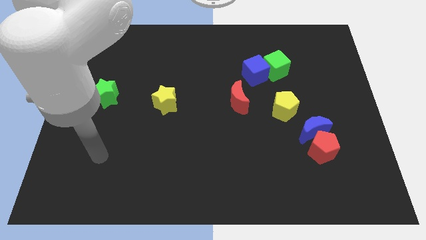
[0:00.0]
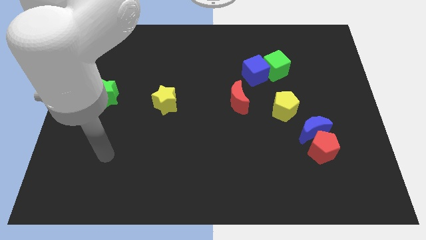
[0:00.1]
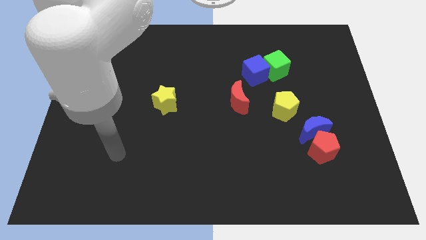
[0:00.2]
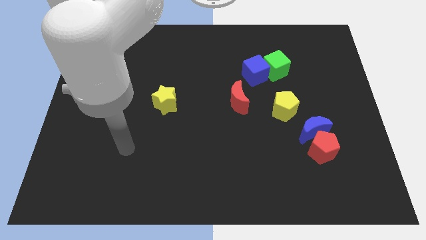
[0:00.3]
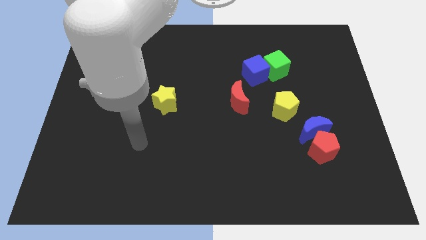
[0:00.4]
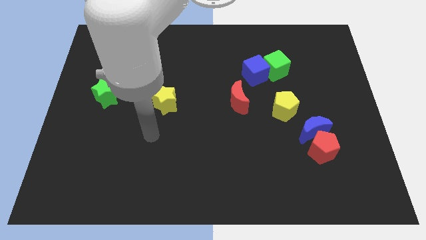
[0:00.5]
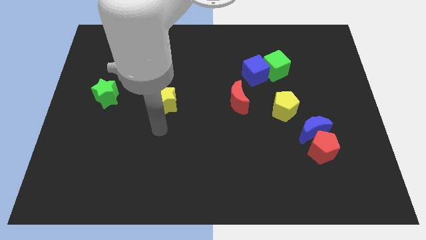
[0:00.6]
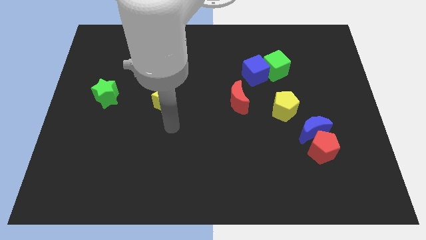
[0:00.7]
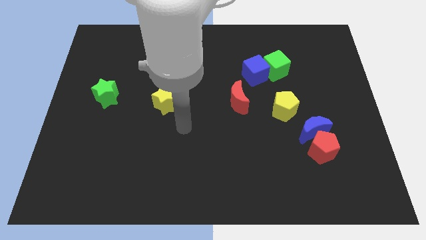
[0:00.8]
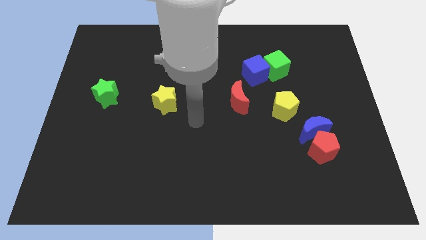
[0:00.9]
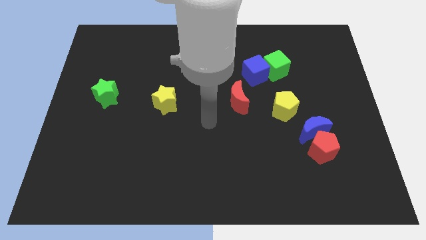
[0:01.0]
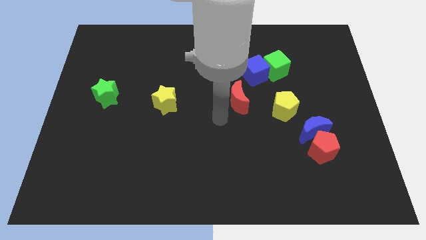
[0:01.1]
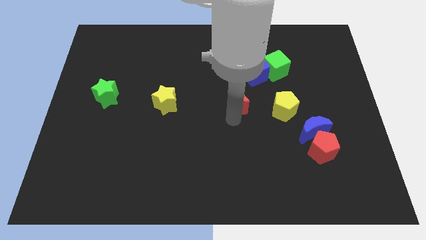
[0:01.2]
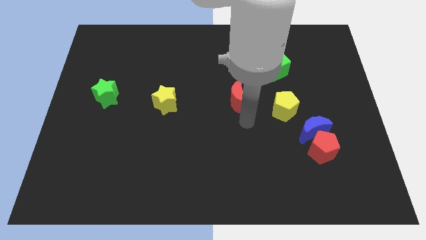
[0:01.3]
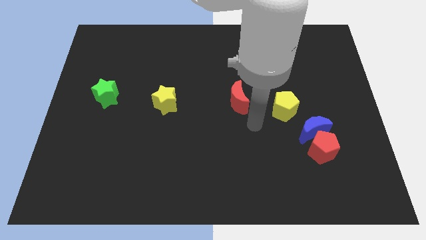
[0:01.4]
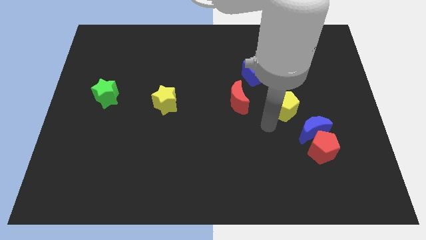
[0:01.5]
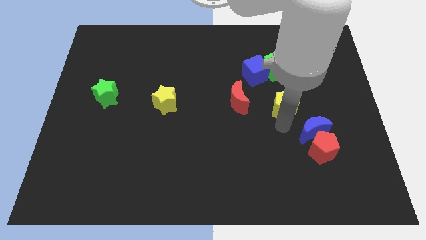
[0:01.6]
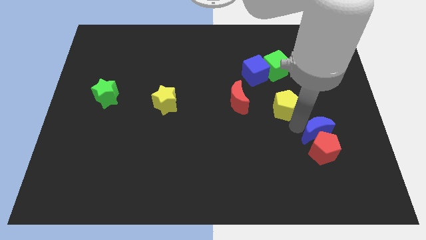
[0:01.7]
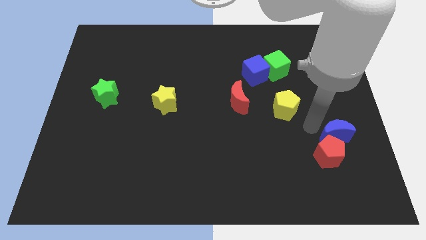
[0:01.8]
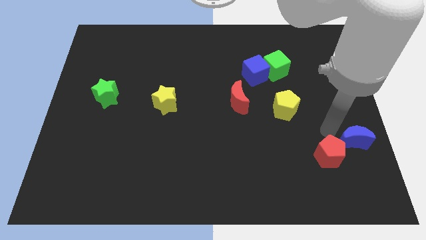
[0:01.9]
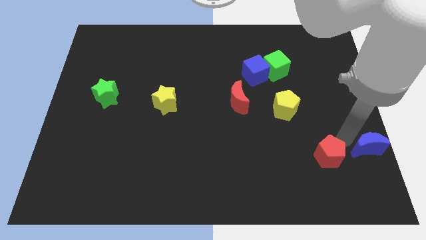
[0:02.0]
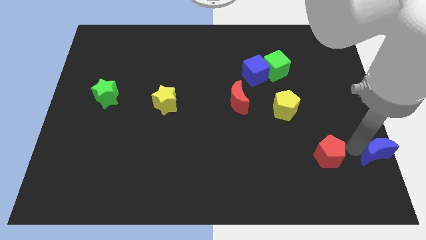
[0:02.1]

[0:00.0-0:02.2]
pull the red pentagon apart from the blue moon

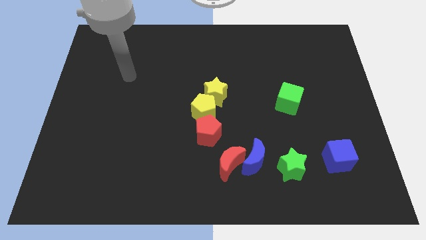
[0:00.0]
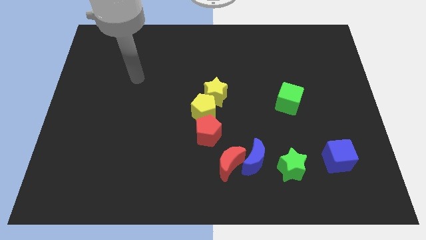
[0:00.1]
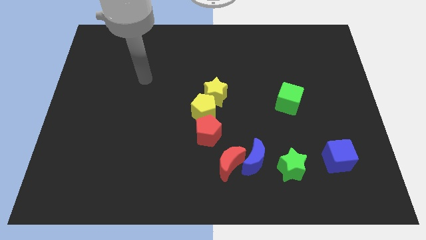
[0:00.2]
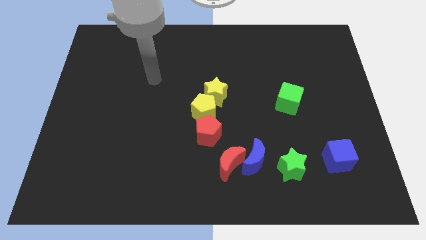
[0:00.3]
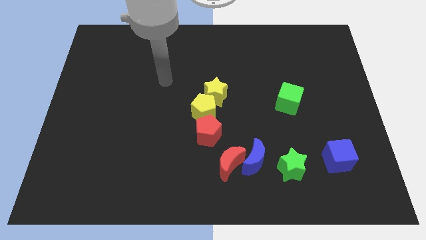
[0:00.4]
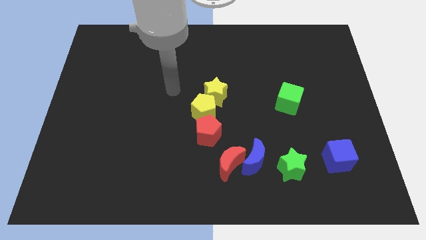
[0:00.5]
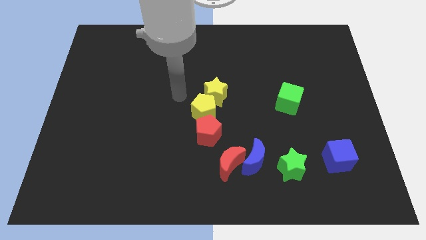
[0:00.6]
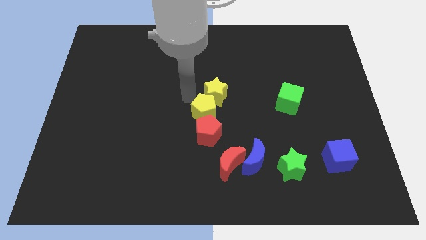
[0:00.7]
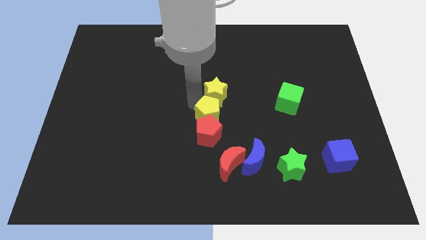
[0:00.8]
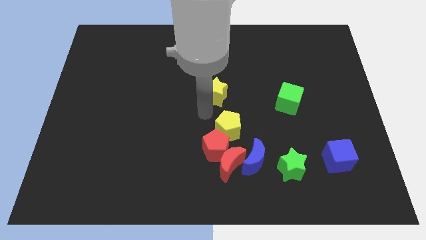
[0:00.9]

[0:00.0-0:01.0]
move the yellow star away from the yellow pentagon

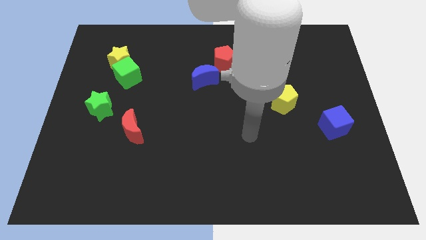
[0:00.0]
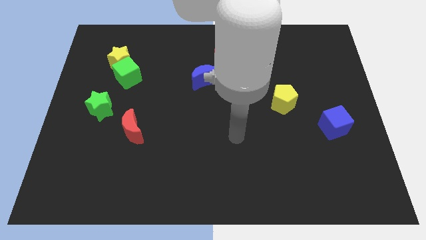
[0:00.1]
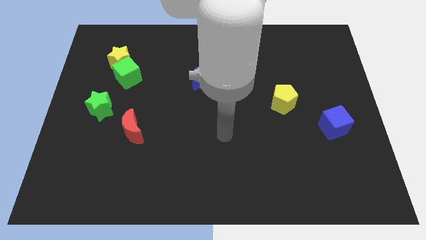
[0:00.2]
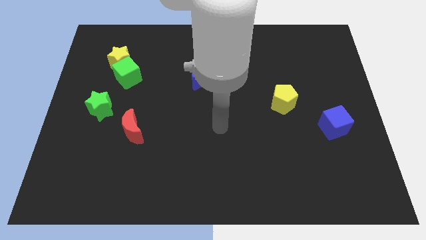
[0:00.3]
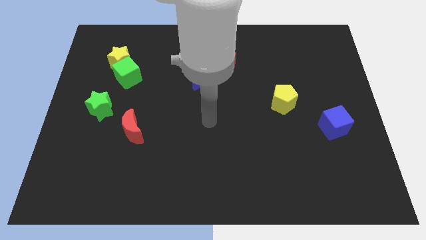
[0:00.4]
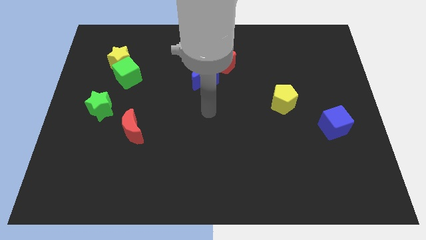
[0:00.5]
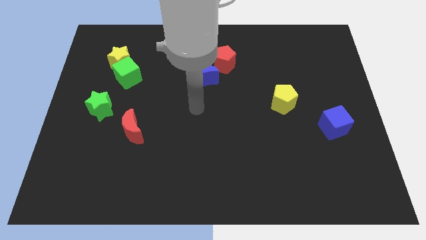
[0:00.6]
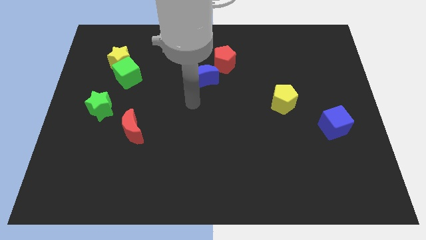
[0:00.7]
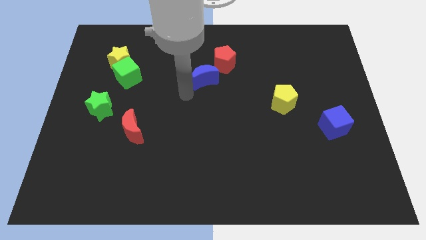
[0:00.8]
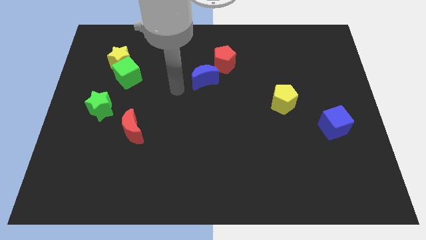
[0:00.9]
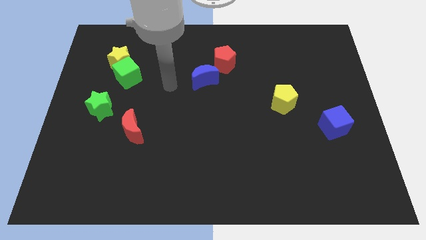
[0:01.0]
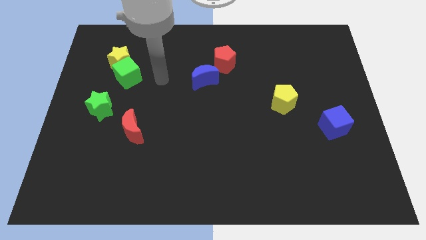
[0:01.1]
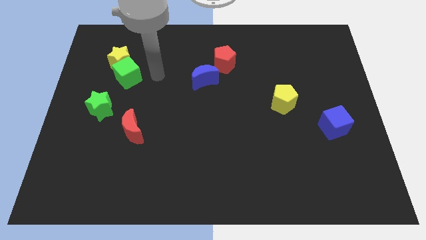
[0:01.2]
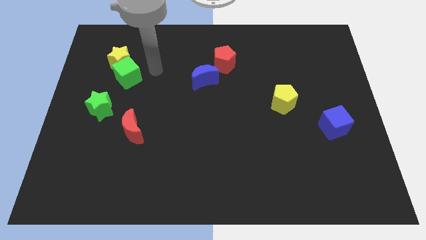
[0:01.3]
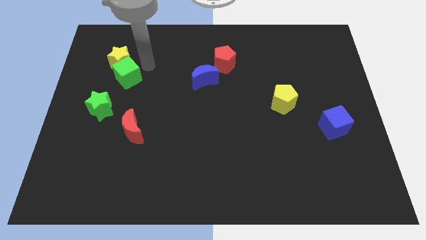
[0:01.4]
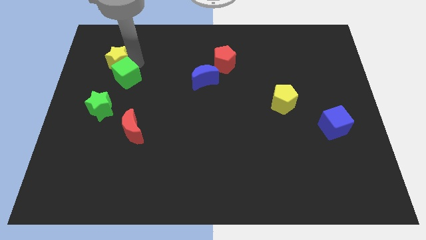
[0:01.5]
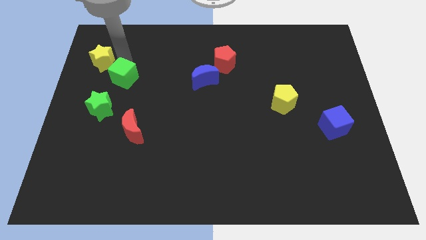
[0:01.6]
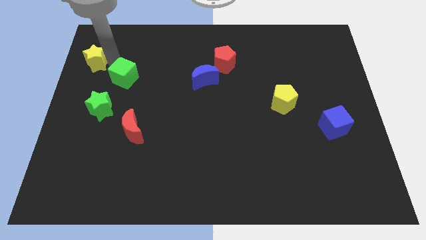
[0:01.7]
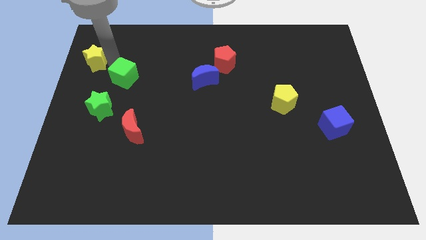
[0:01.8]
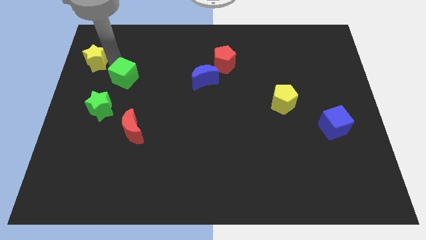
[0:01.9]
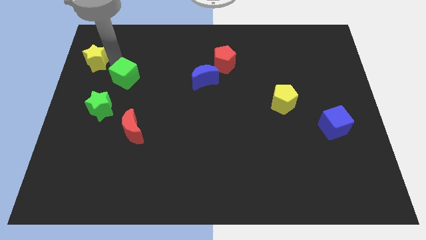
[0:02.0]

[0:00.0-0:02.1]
separate the green cube from the yellow star

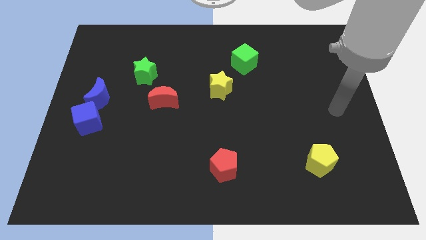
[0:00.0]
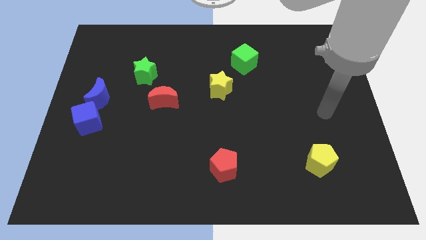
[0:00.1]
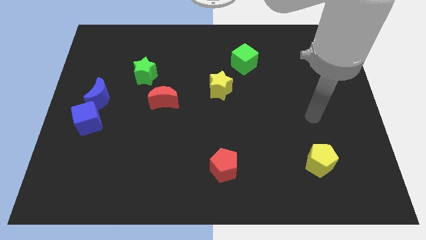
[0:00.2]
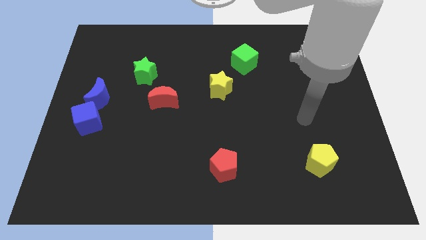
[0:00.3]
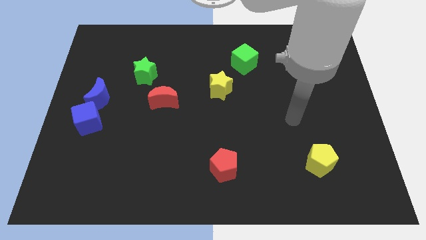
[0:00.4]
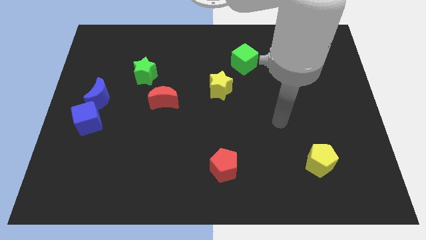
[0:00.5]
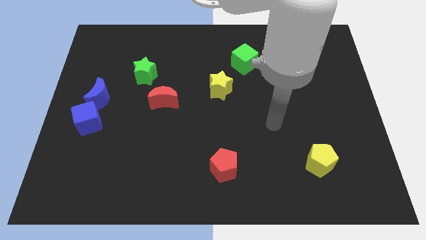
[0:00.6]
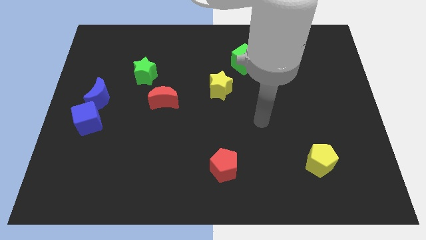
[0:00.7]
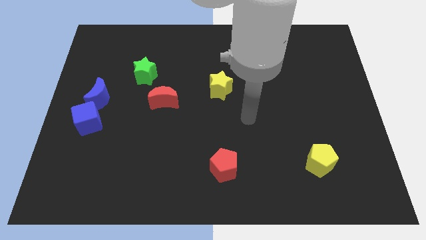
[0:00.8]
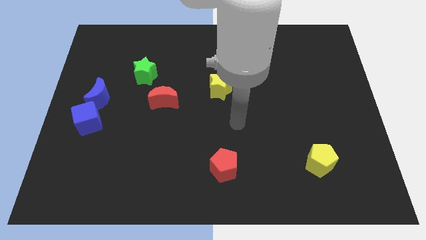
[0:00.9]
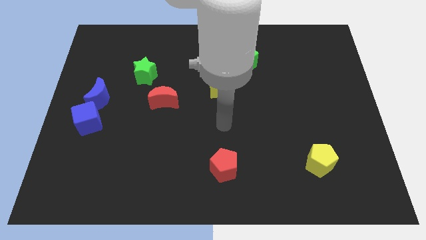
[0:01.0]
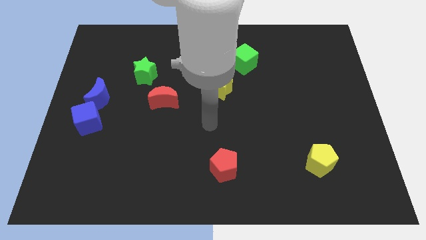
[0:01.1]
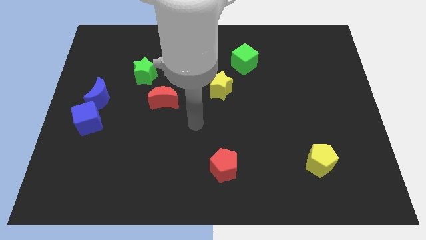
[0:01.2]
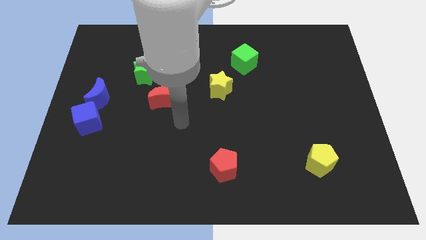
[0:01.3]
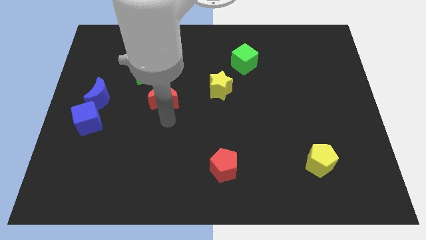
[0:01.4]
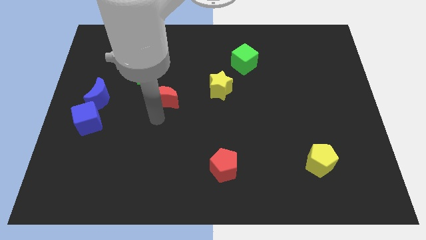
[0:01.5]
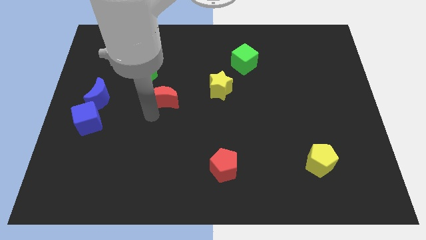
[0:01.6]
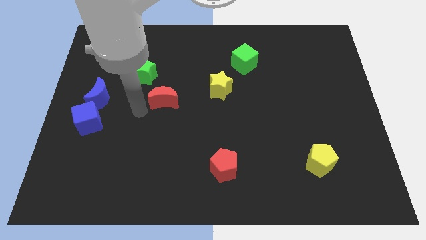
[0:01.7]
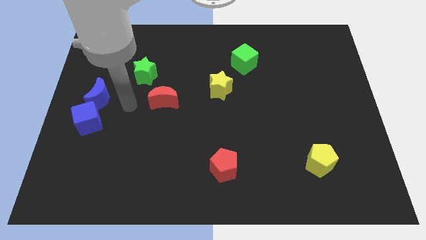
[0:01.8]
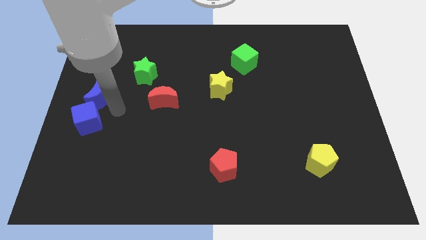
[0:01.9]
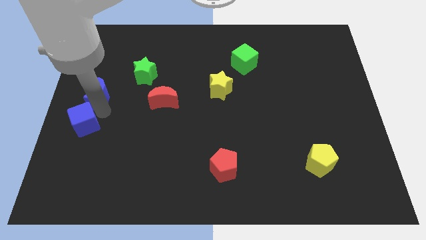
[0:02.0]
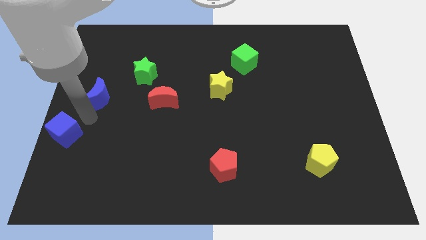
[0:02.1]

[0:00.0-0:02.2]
move the blue moon away from the blue cube

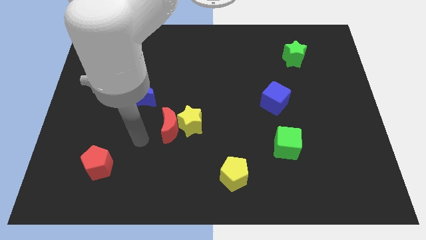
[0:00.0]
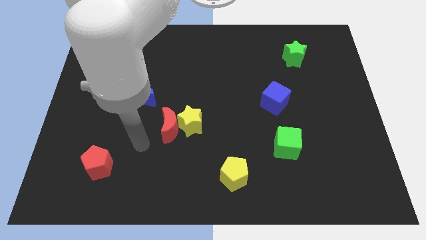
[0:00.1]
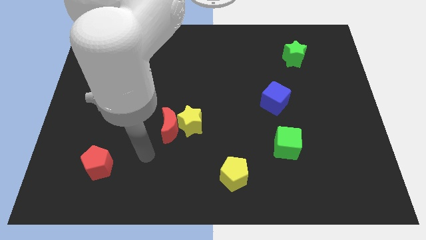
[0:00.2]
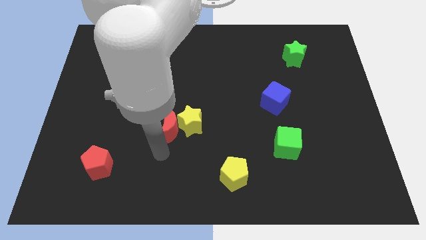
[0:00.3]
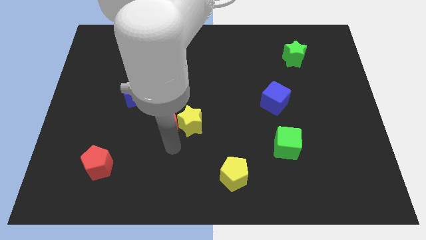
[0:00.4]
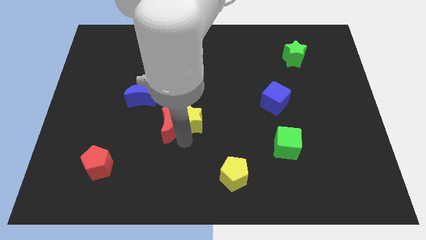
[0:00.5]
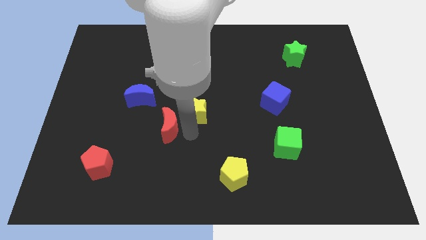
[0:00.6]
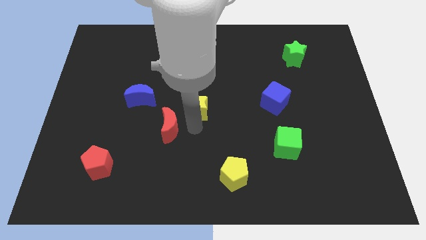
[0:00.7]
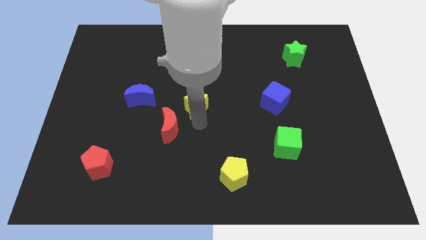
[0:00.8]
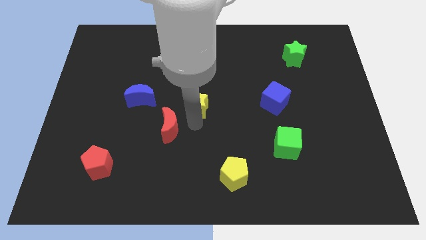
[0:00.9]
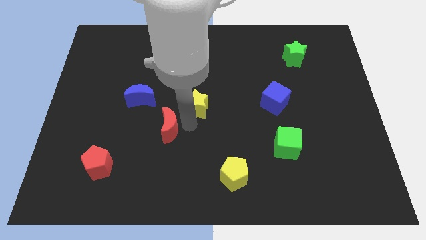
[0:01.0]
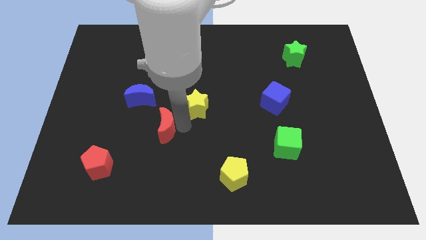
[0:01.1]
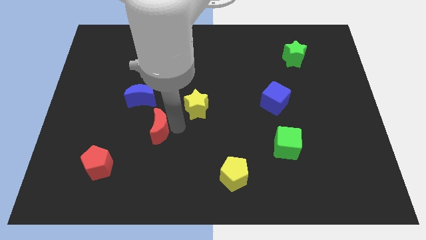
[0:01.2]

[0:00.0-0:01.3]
move the red moon away from the yellow star

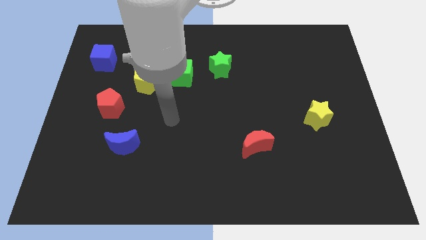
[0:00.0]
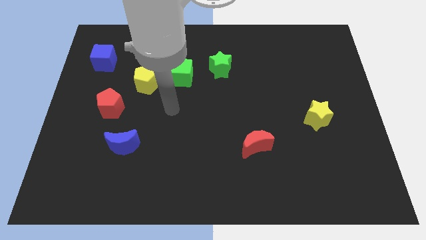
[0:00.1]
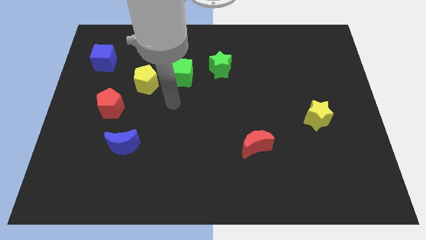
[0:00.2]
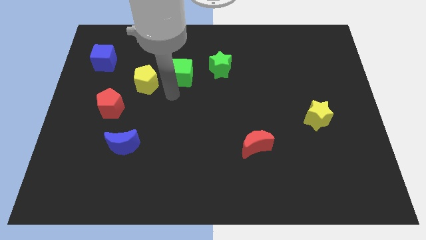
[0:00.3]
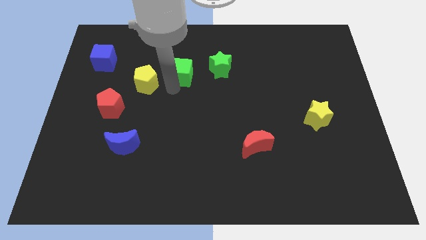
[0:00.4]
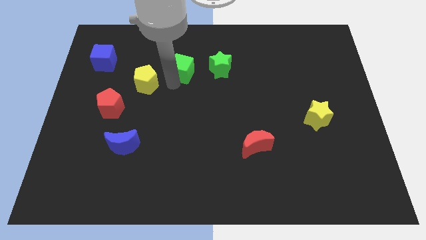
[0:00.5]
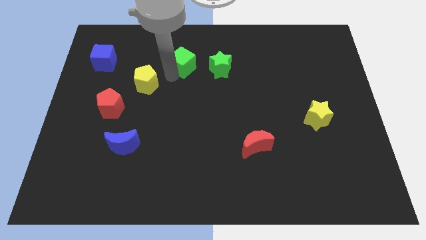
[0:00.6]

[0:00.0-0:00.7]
pull the yellow pentagon apart from the green cube
